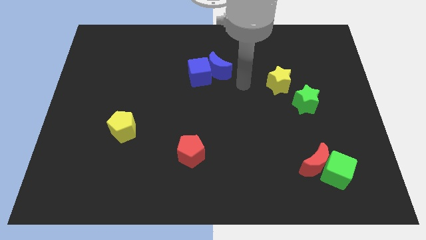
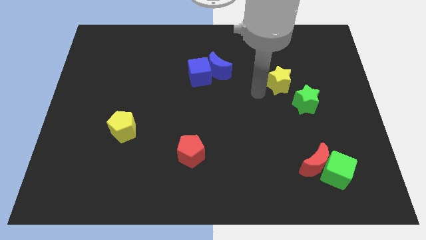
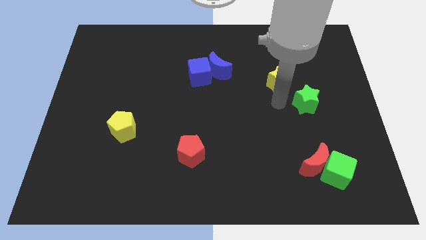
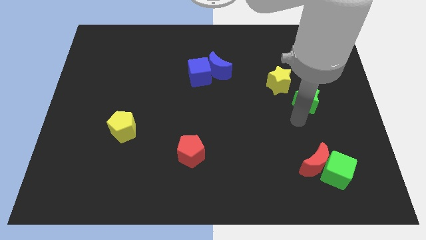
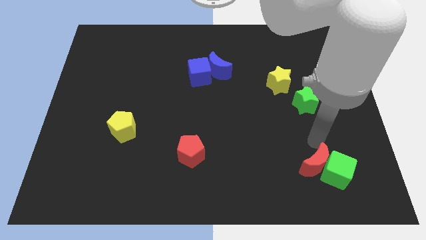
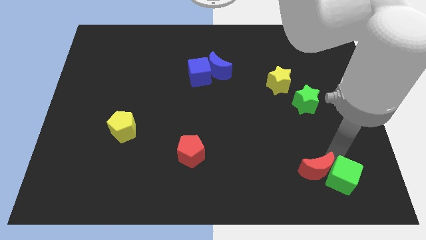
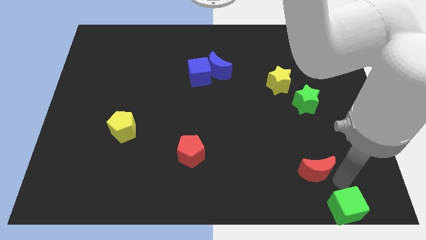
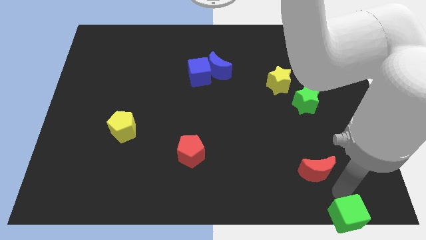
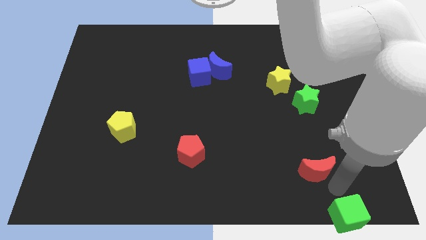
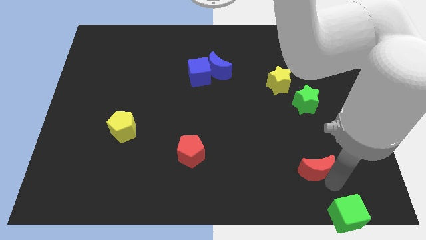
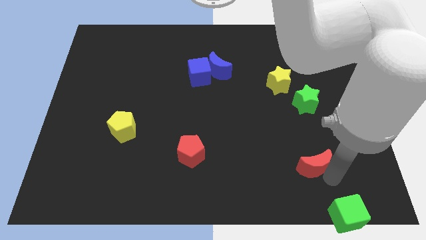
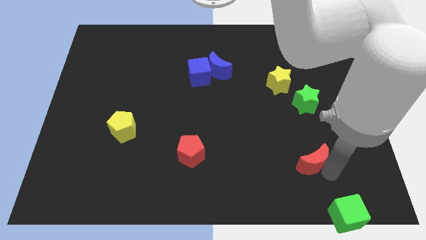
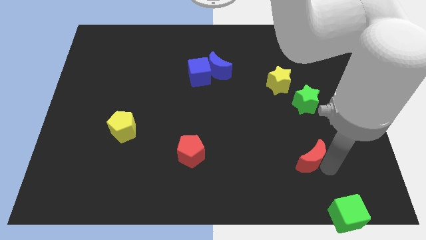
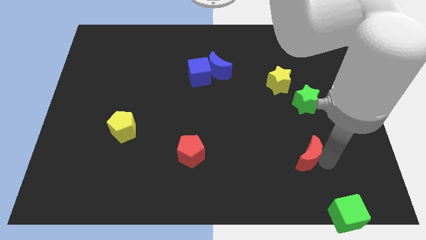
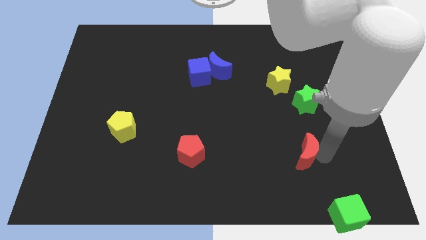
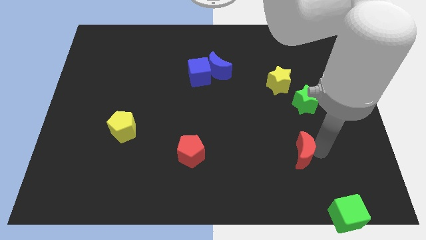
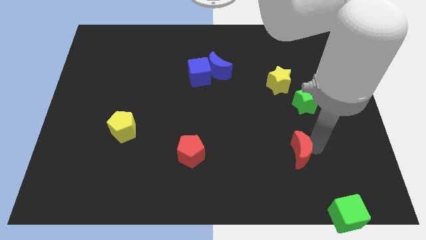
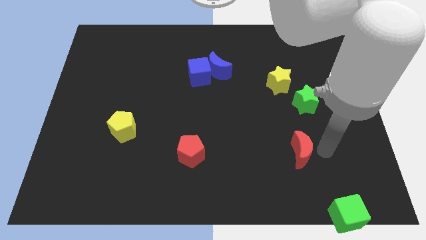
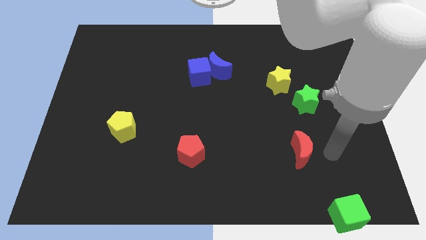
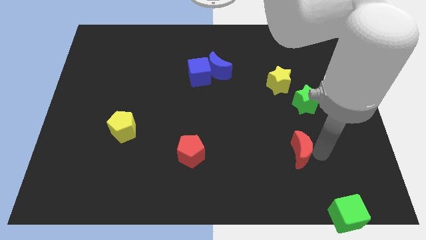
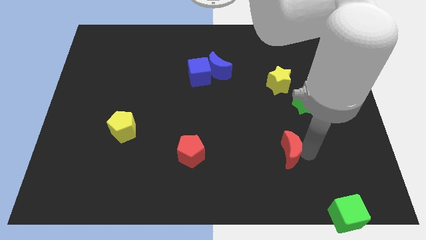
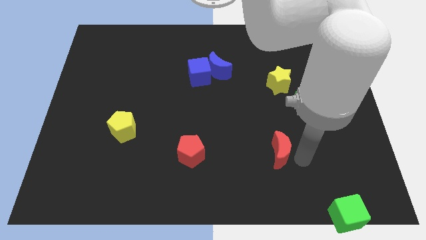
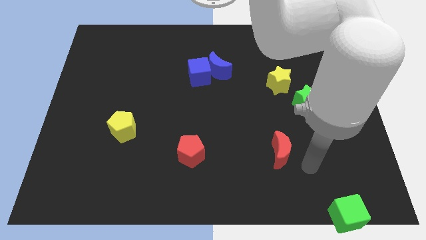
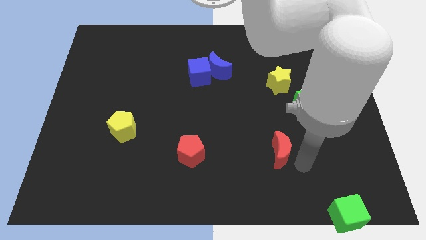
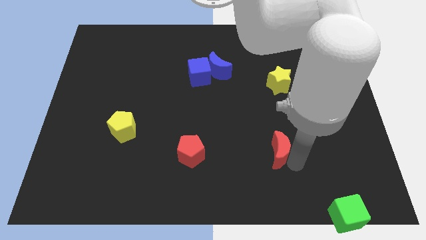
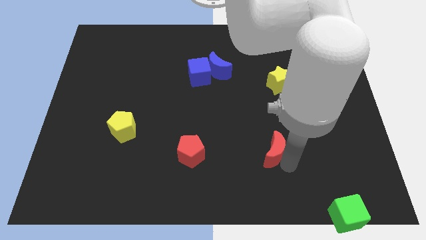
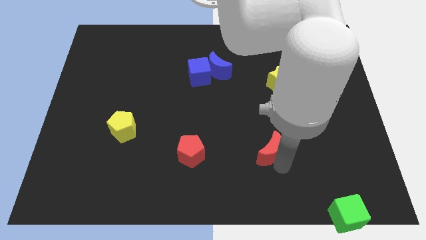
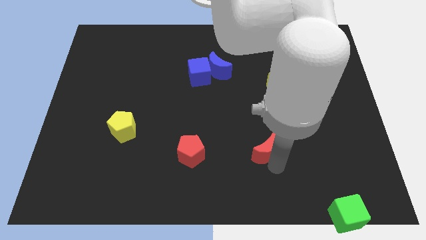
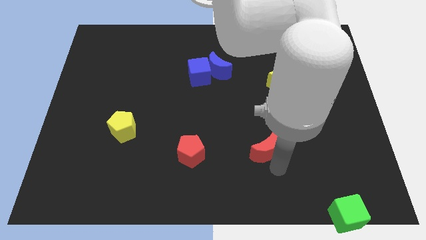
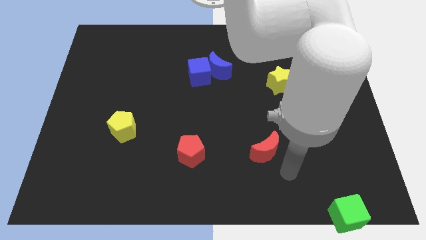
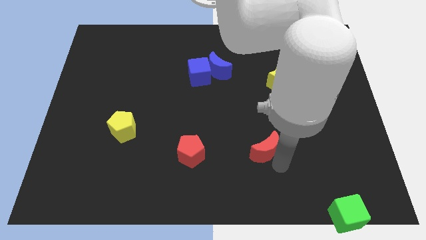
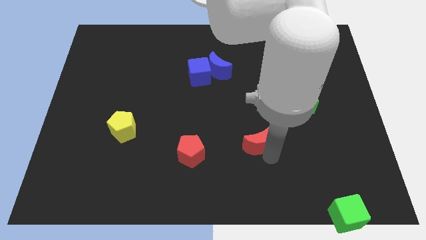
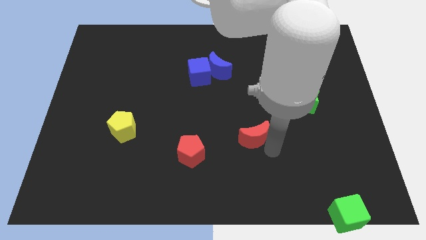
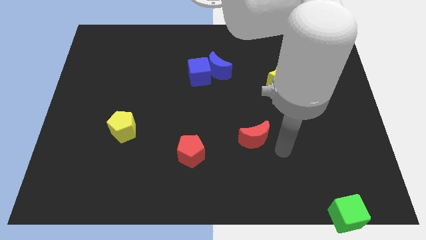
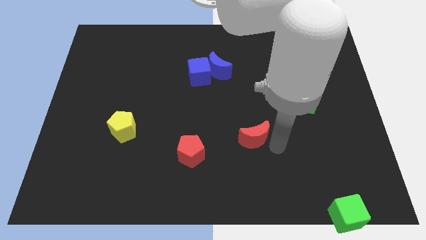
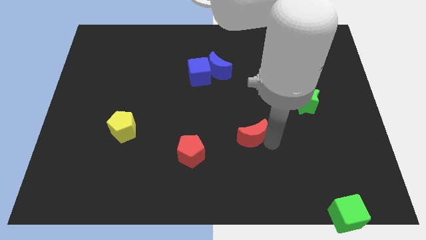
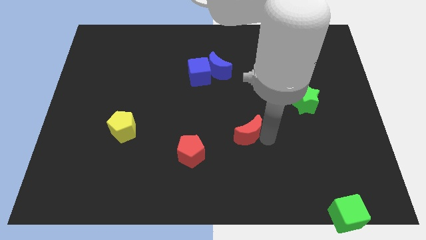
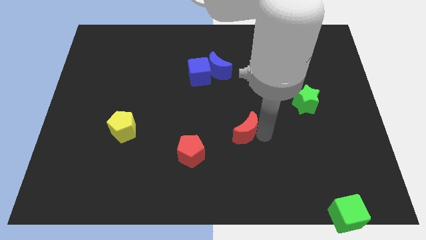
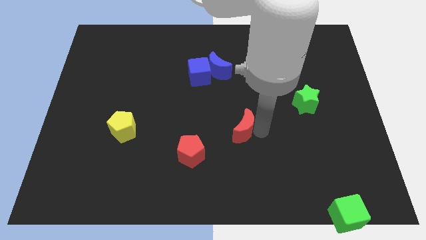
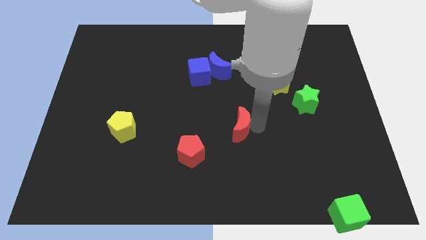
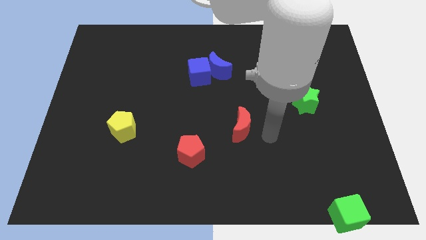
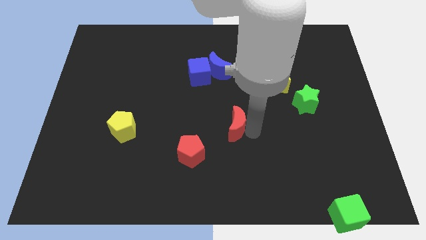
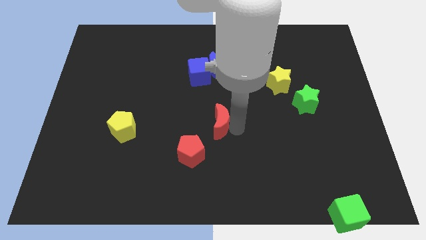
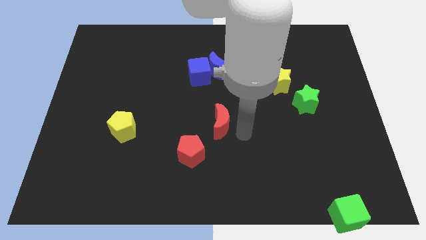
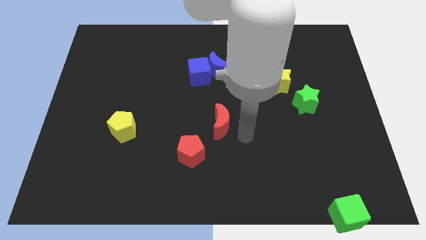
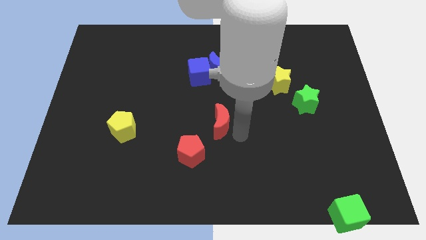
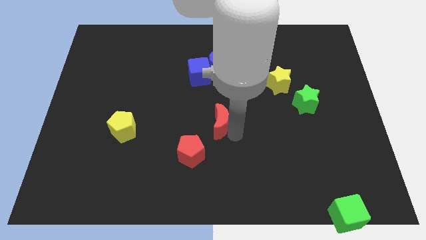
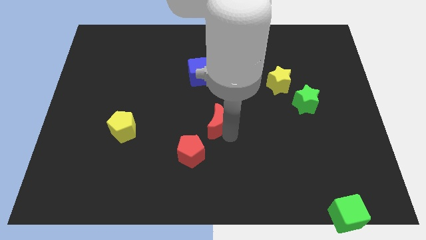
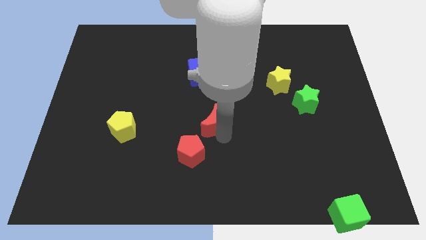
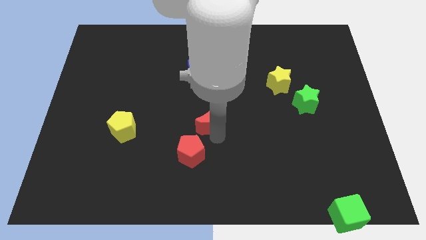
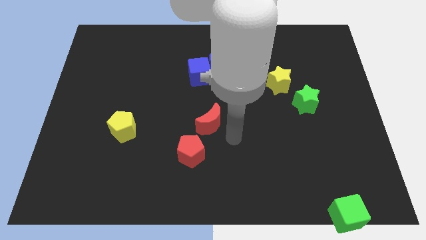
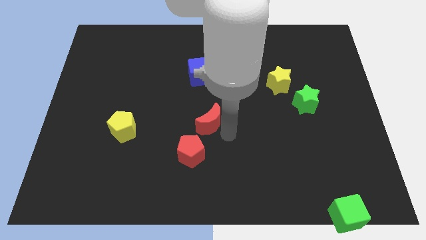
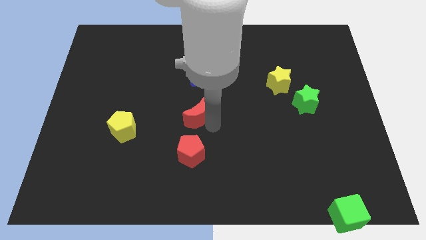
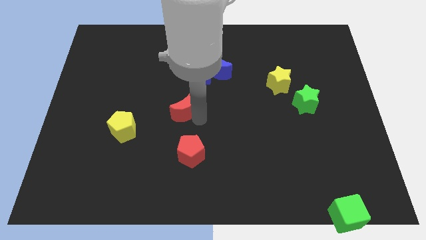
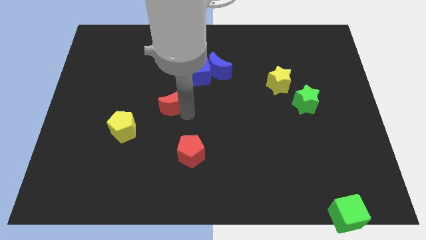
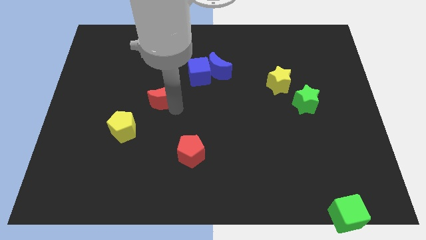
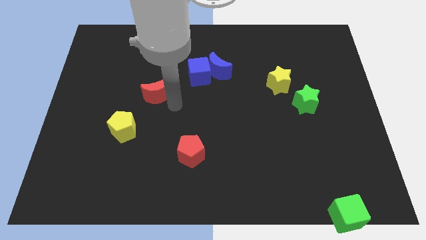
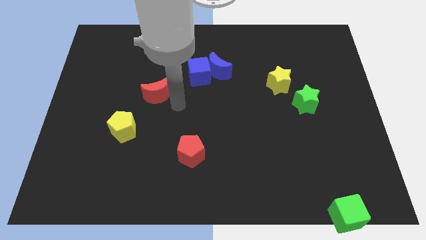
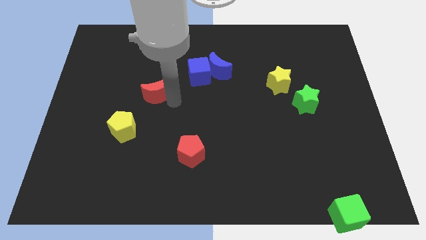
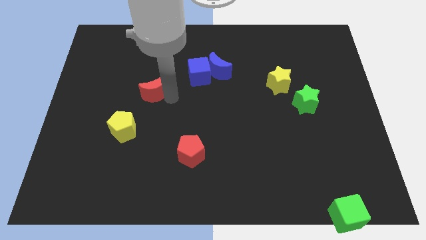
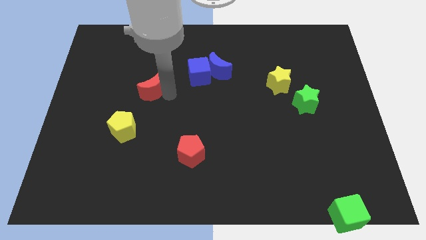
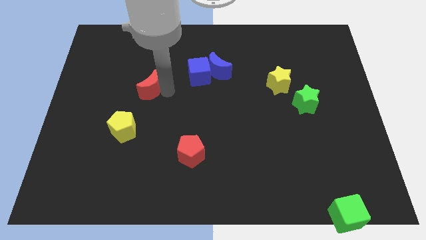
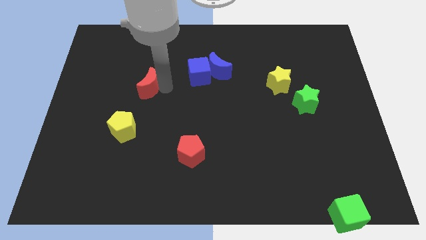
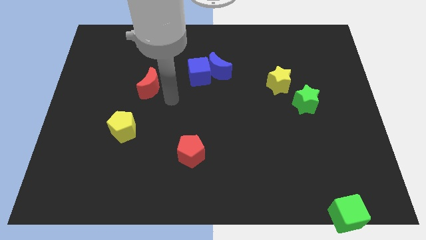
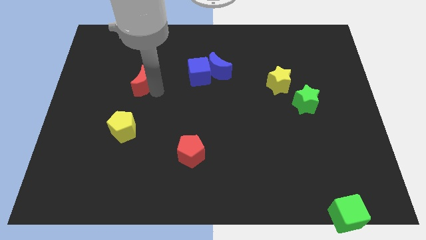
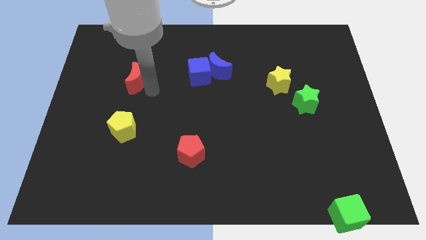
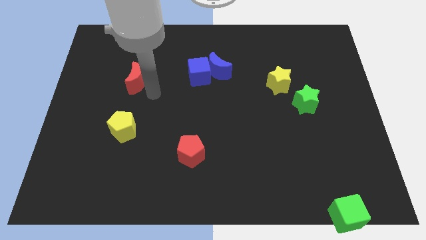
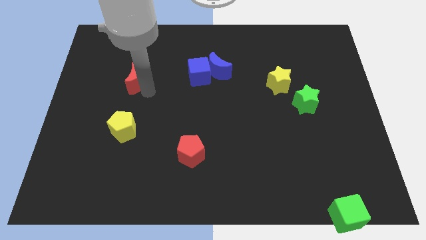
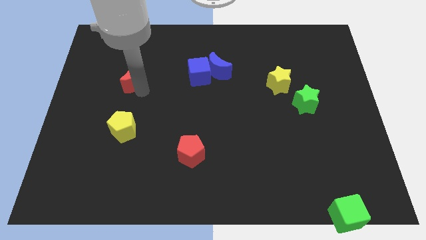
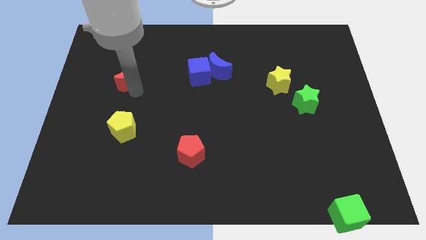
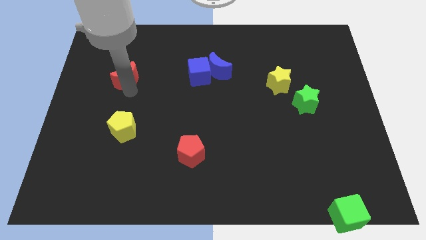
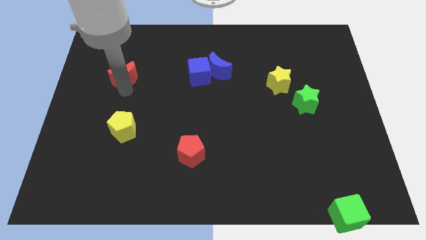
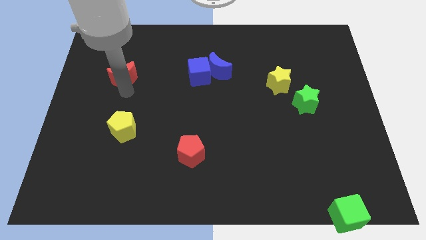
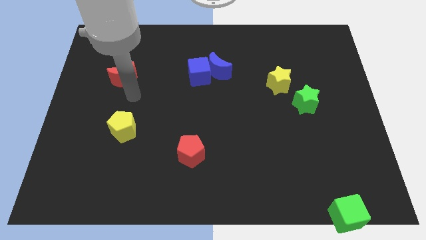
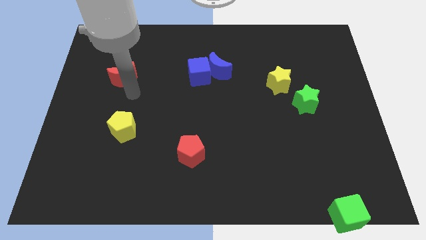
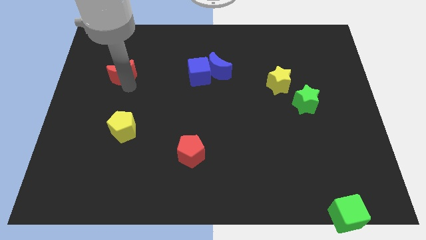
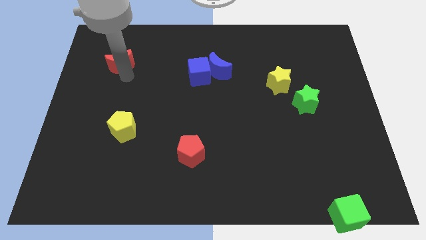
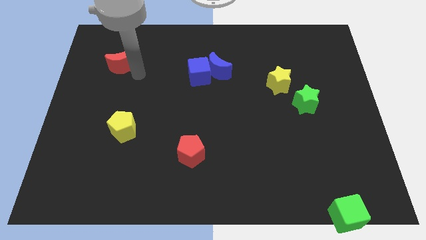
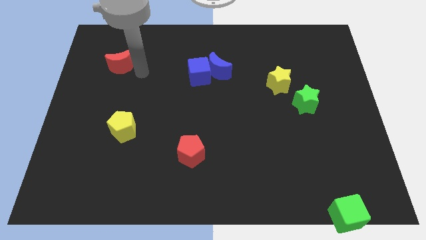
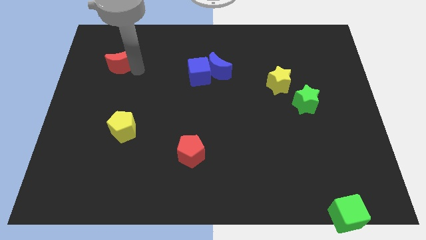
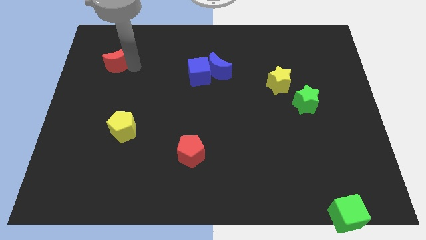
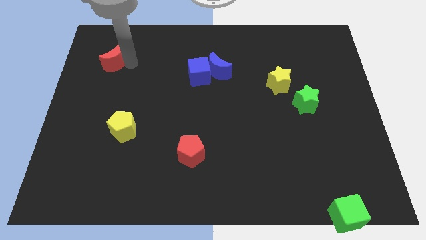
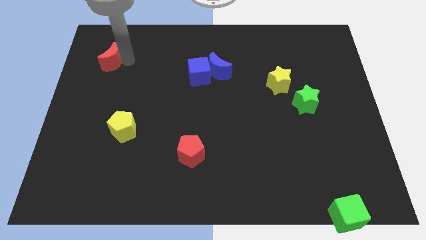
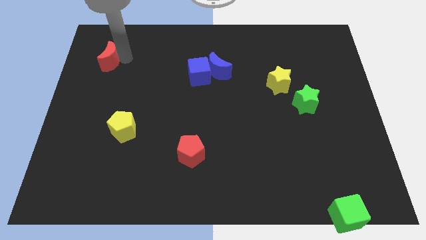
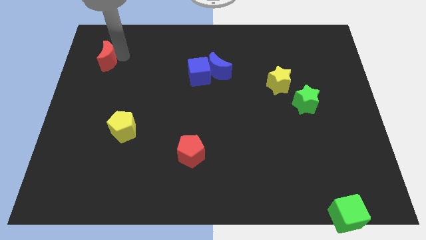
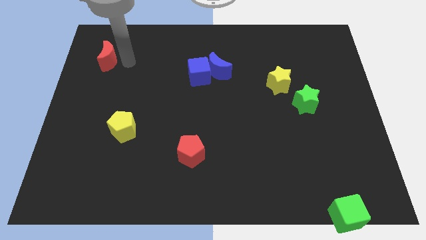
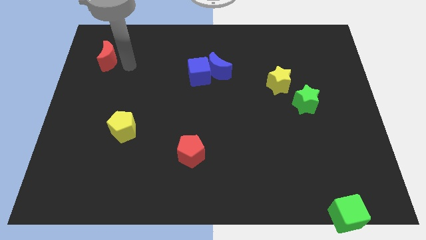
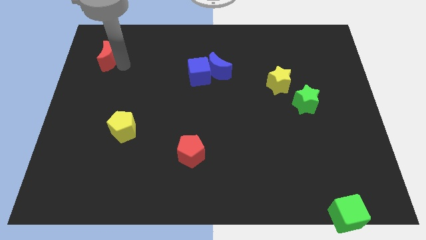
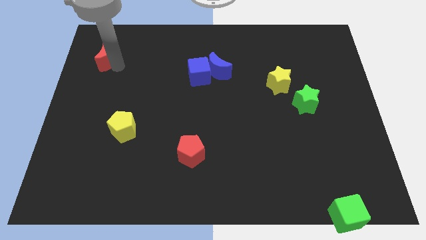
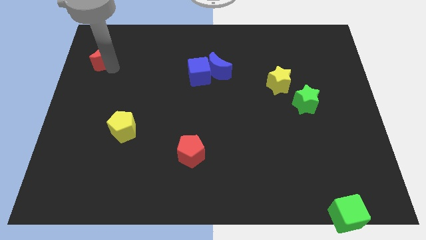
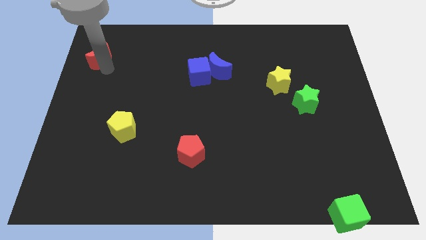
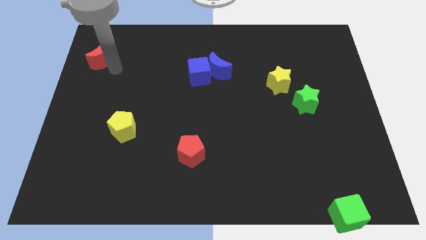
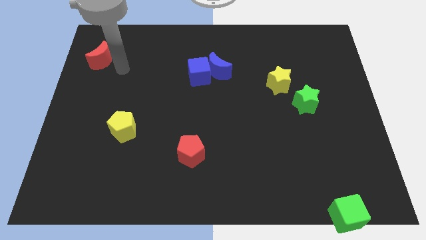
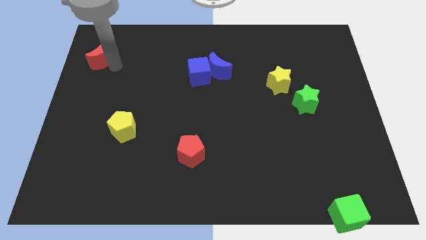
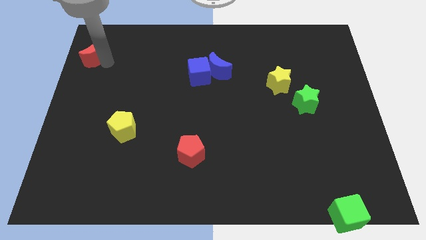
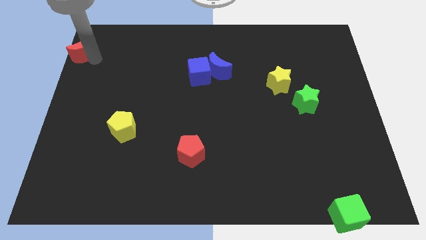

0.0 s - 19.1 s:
slide the red moon to the top left
